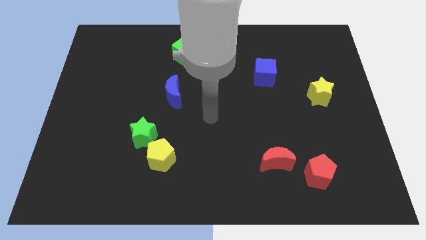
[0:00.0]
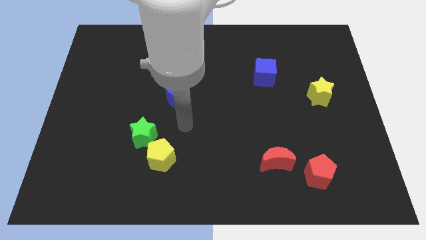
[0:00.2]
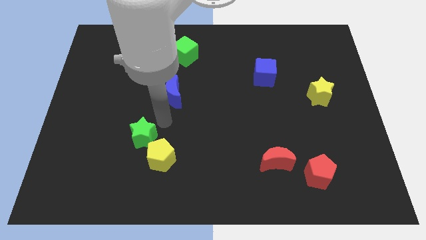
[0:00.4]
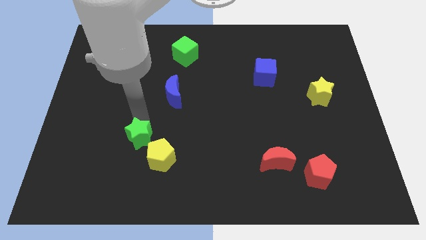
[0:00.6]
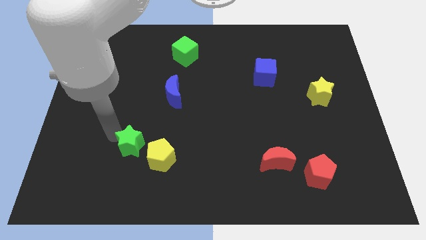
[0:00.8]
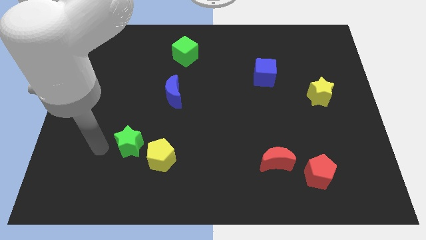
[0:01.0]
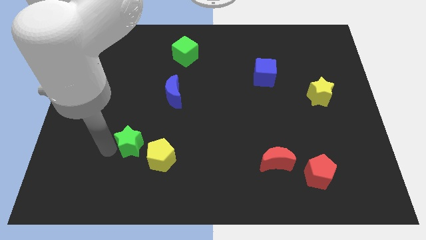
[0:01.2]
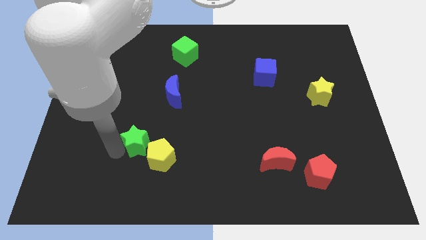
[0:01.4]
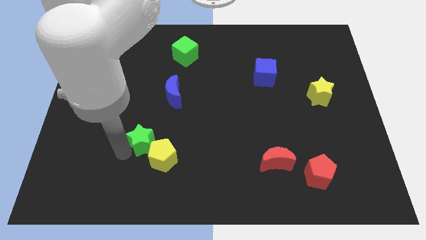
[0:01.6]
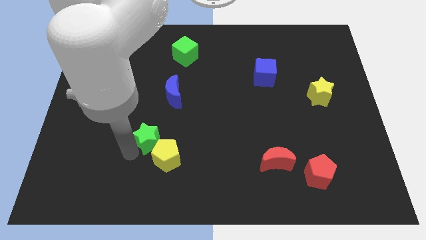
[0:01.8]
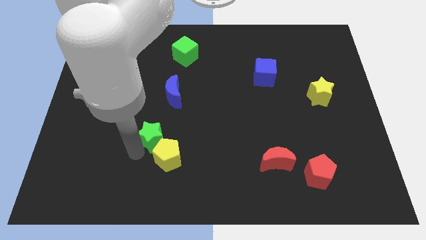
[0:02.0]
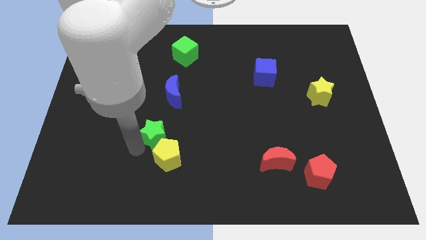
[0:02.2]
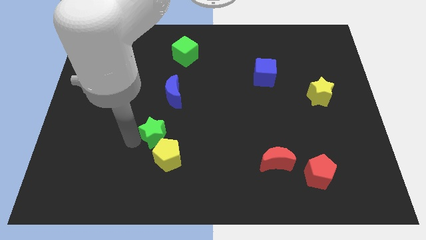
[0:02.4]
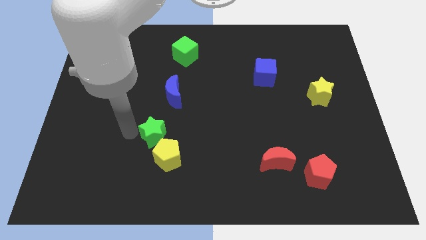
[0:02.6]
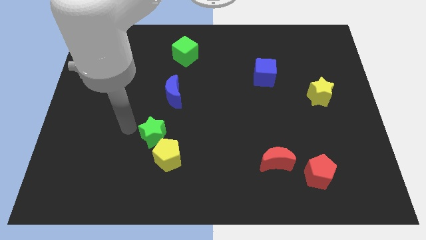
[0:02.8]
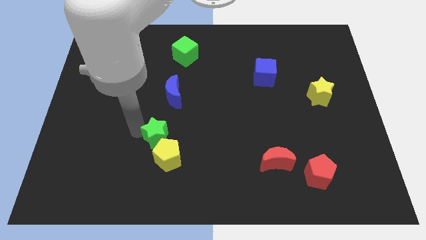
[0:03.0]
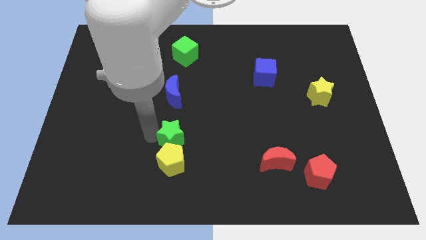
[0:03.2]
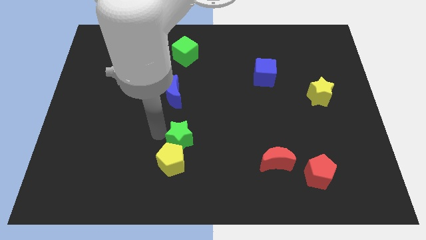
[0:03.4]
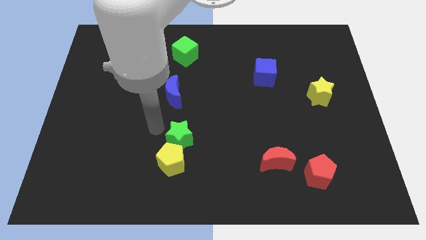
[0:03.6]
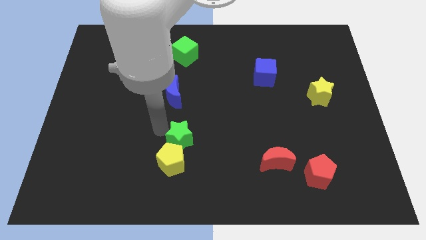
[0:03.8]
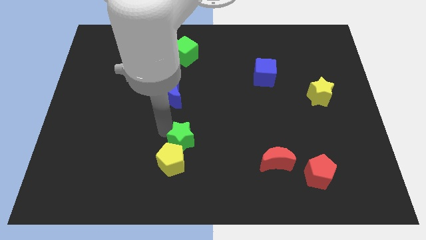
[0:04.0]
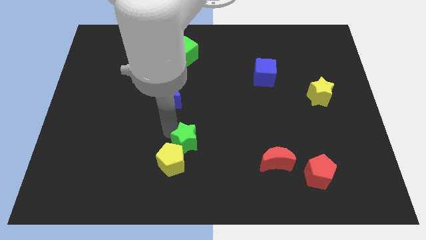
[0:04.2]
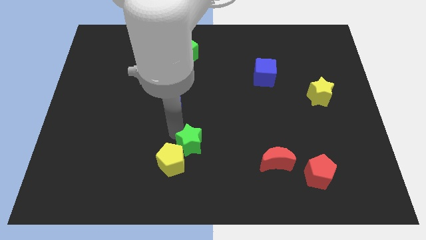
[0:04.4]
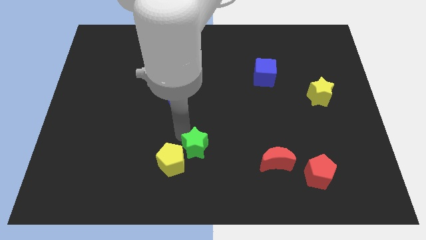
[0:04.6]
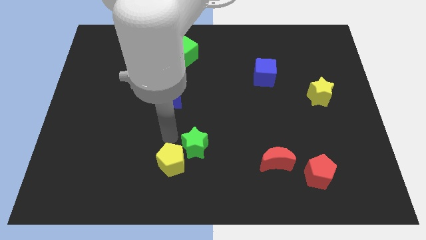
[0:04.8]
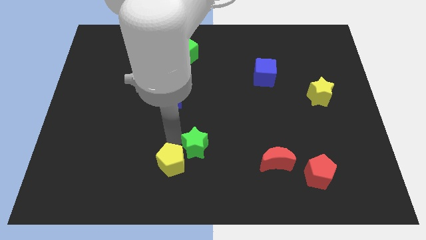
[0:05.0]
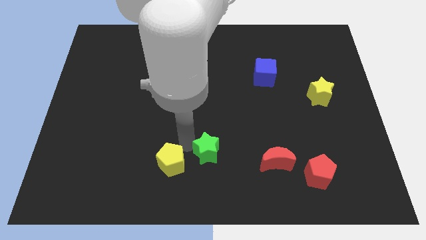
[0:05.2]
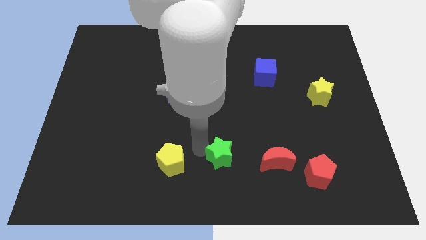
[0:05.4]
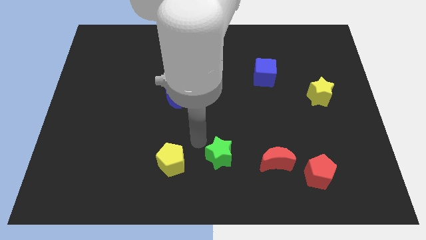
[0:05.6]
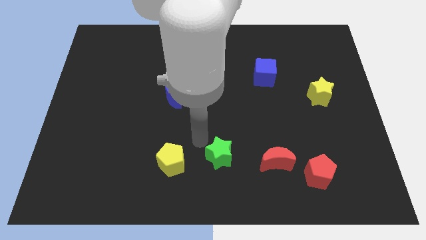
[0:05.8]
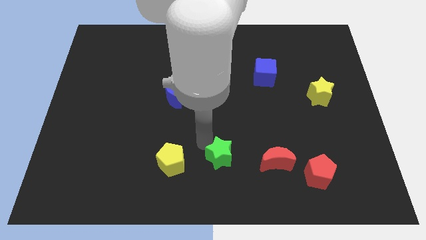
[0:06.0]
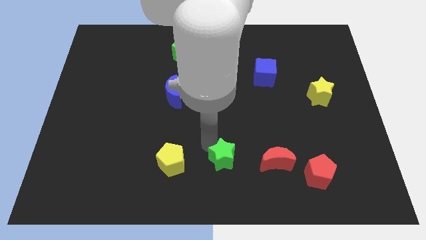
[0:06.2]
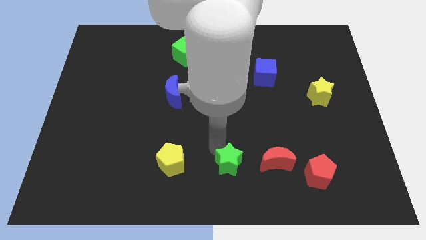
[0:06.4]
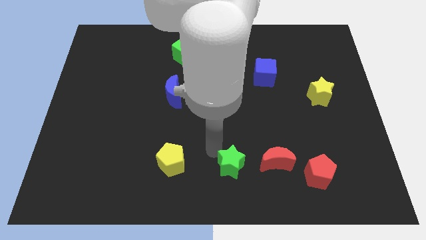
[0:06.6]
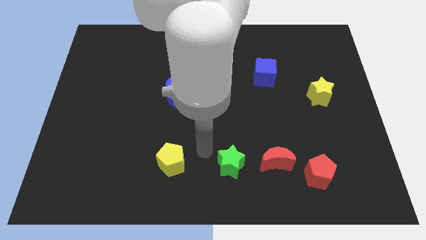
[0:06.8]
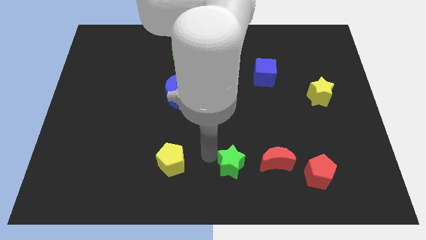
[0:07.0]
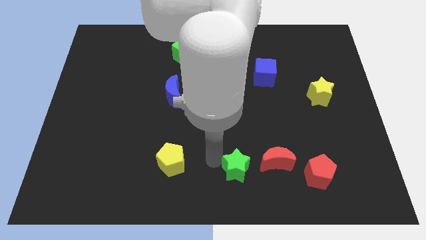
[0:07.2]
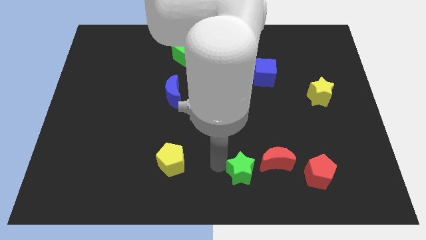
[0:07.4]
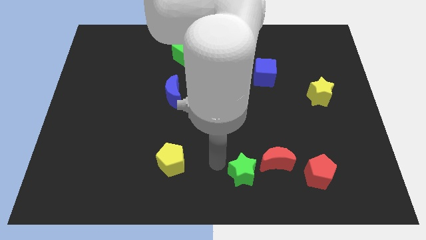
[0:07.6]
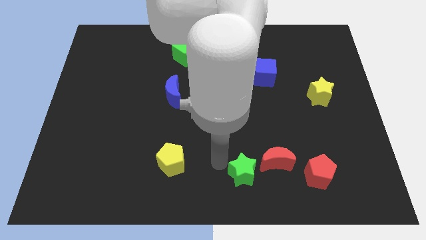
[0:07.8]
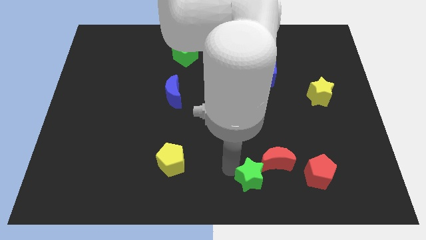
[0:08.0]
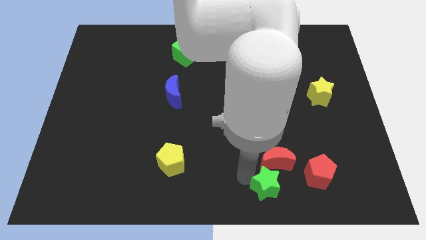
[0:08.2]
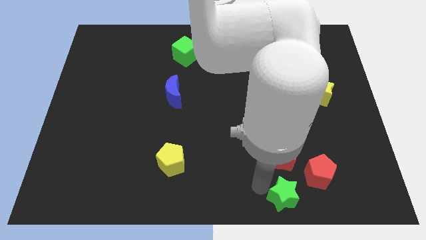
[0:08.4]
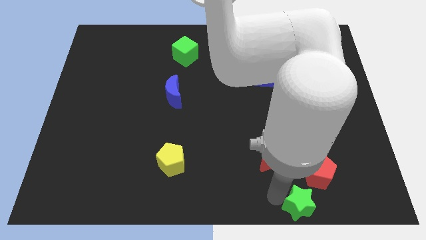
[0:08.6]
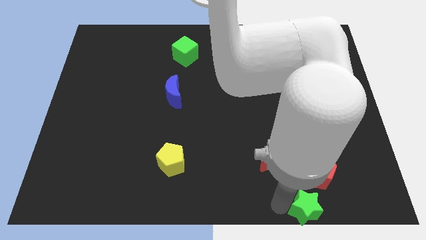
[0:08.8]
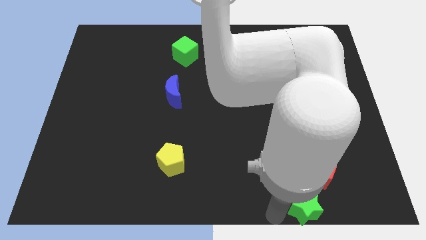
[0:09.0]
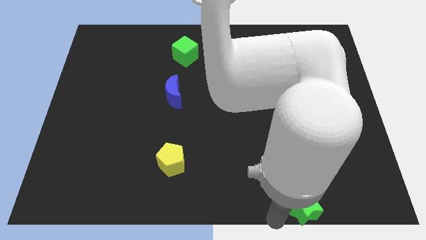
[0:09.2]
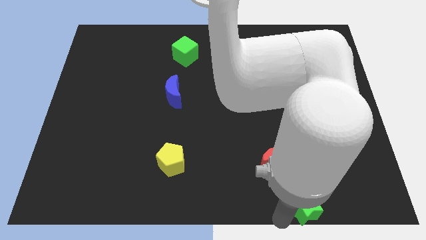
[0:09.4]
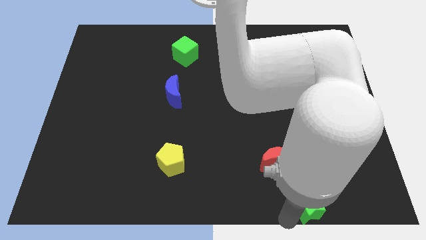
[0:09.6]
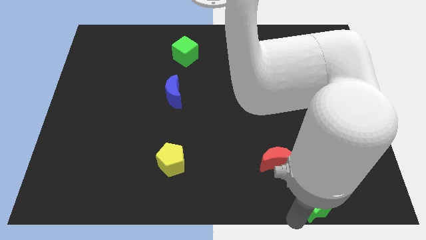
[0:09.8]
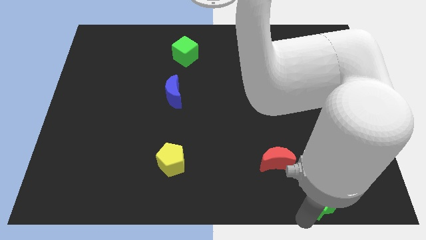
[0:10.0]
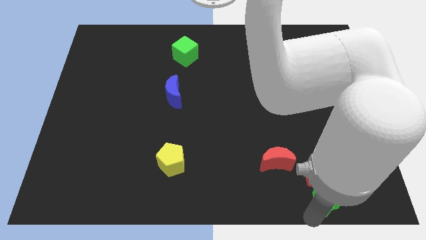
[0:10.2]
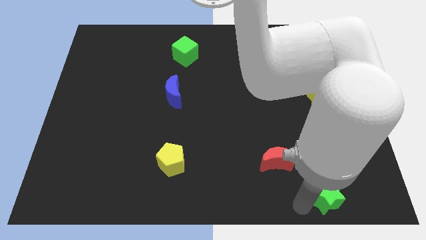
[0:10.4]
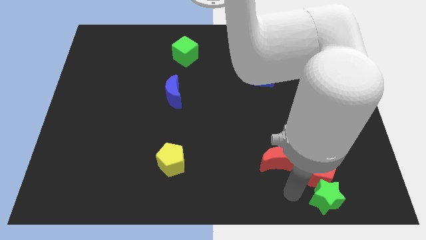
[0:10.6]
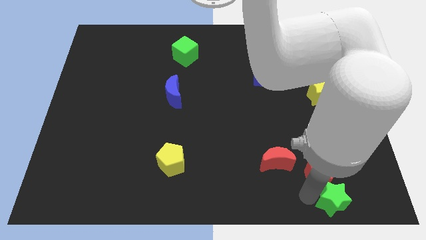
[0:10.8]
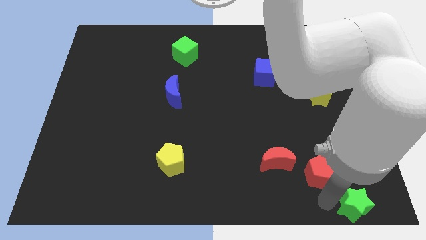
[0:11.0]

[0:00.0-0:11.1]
move the green star to the bottom right of the board
